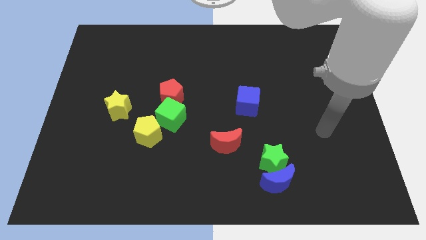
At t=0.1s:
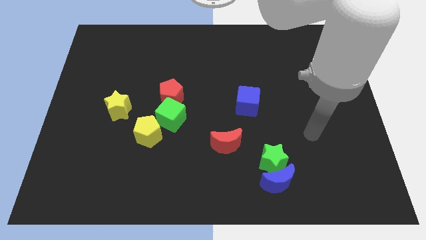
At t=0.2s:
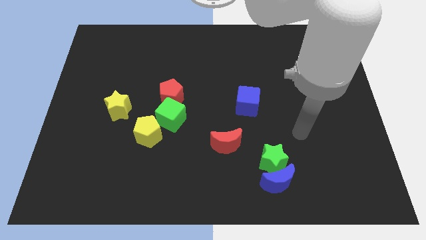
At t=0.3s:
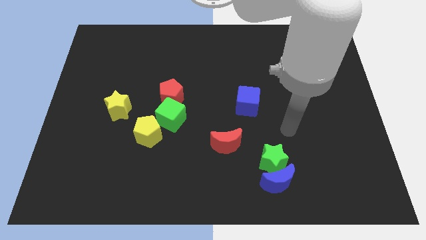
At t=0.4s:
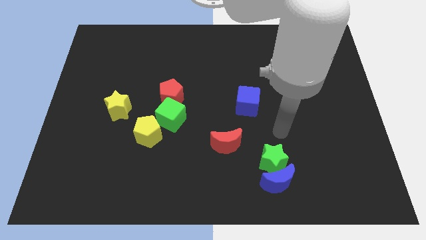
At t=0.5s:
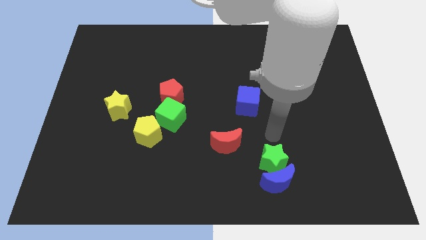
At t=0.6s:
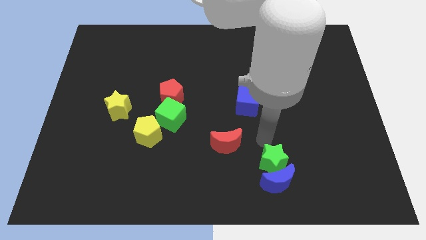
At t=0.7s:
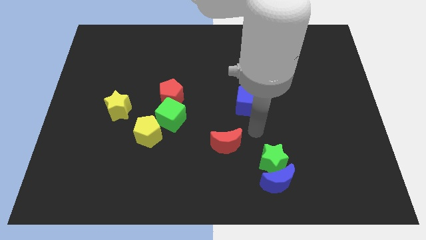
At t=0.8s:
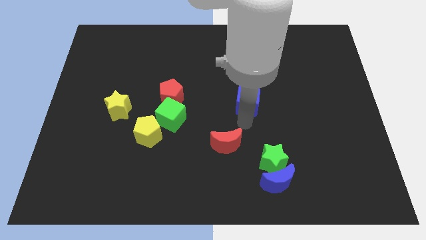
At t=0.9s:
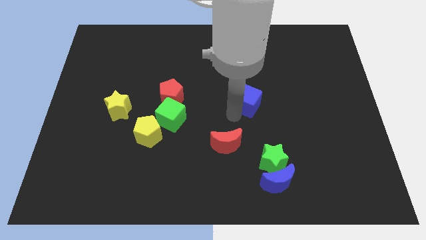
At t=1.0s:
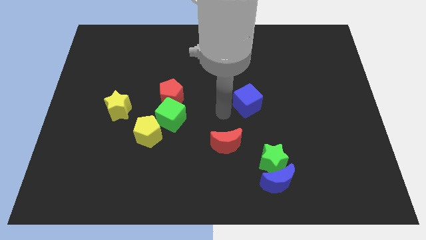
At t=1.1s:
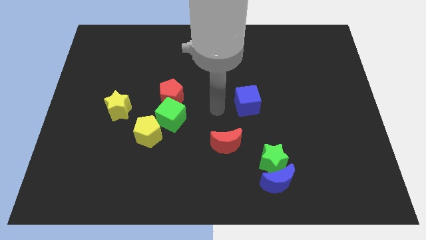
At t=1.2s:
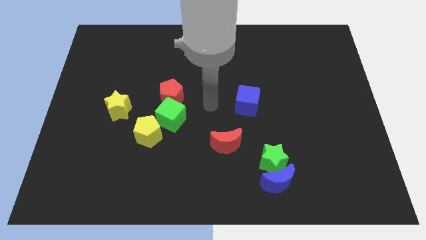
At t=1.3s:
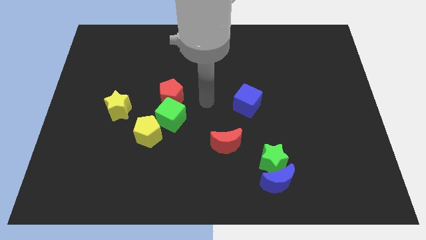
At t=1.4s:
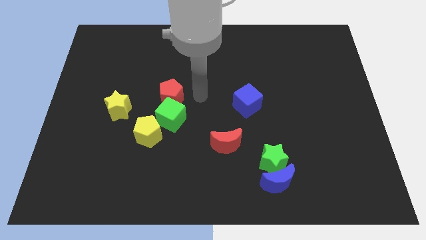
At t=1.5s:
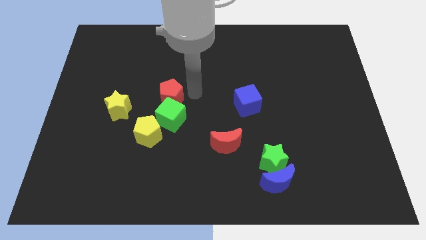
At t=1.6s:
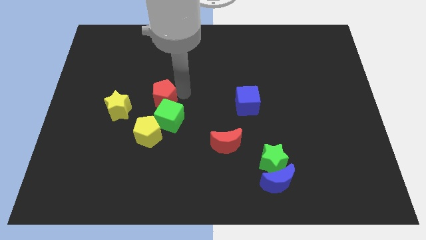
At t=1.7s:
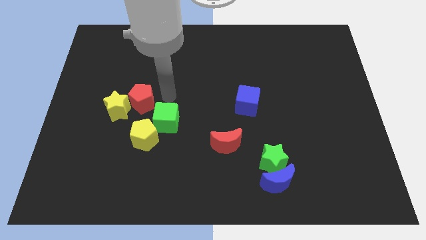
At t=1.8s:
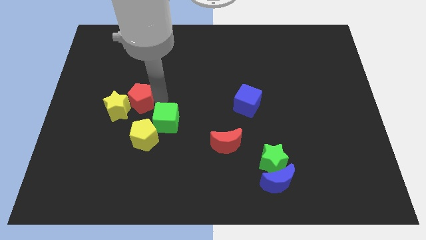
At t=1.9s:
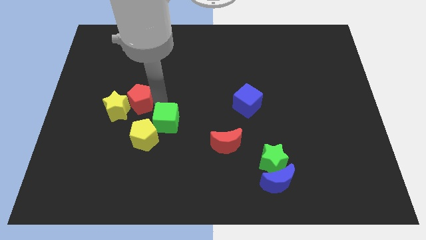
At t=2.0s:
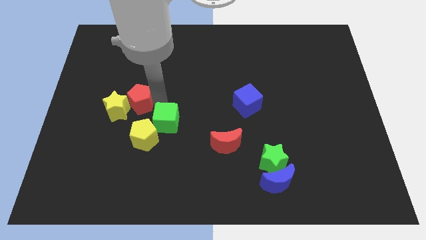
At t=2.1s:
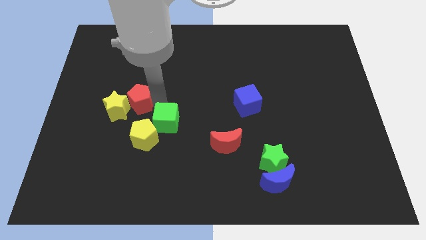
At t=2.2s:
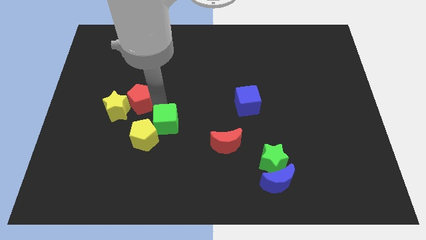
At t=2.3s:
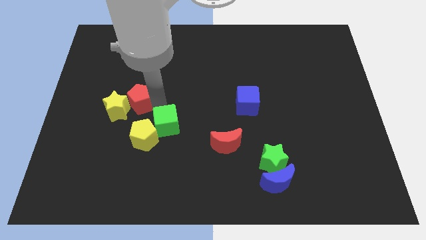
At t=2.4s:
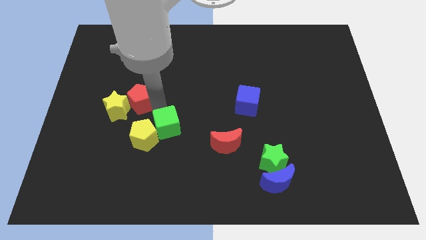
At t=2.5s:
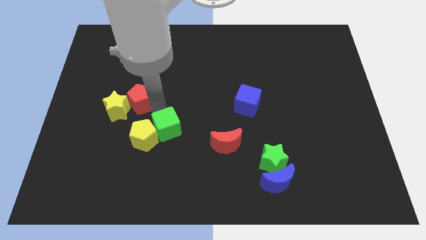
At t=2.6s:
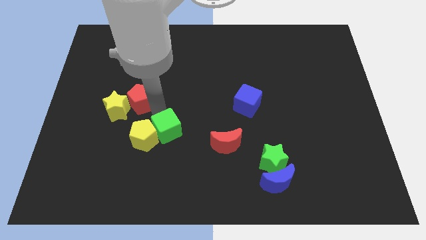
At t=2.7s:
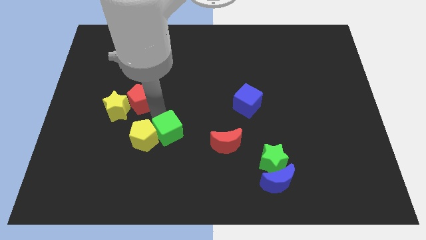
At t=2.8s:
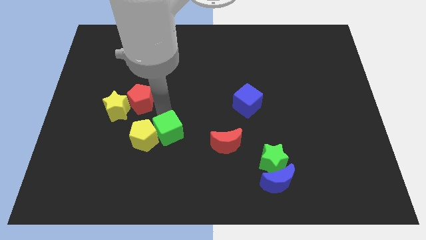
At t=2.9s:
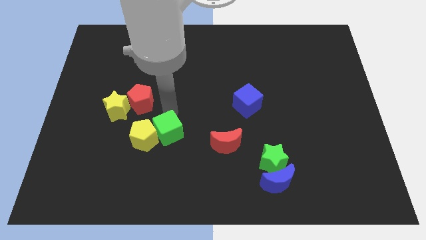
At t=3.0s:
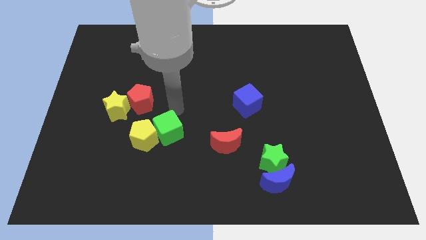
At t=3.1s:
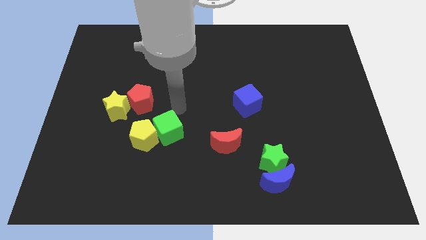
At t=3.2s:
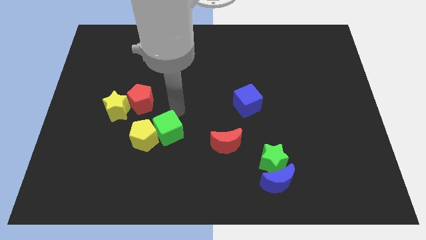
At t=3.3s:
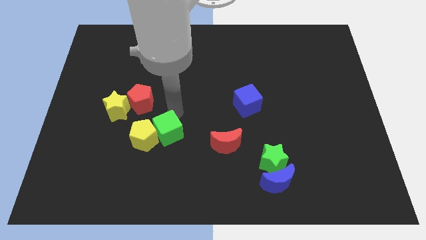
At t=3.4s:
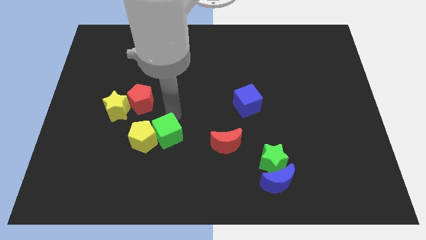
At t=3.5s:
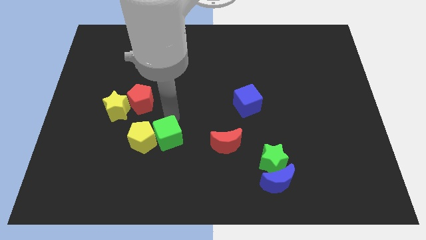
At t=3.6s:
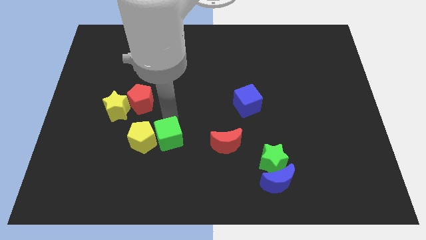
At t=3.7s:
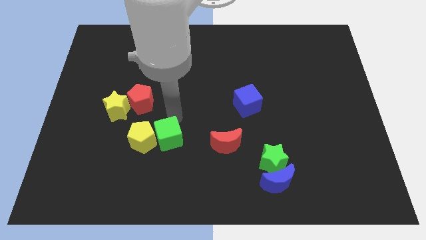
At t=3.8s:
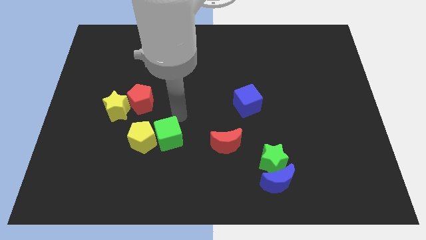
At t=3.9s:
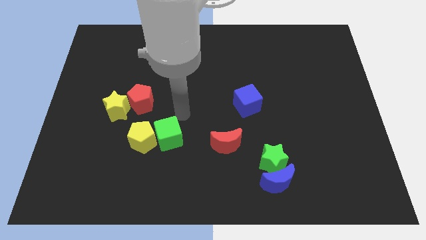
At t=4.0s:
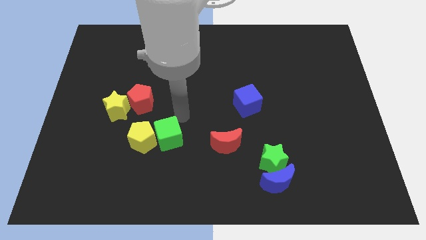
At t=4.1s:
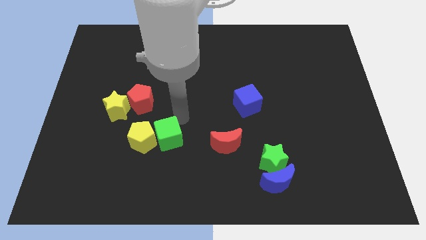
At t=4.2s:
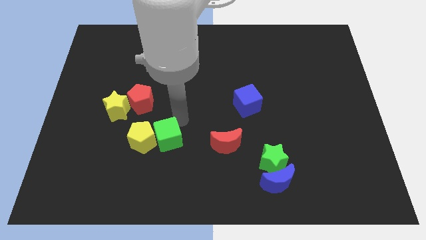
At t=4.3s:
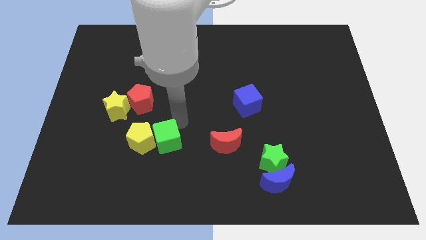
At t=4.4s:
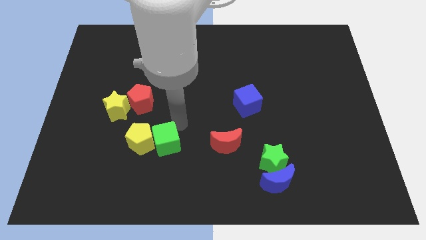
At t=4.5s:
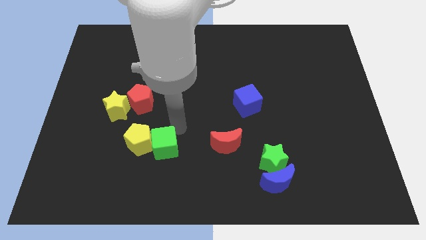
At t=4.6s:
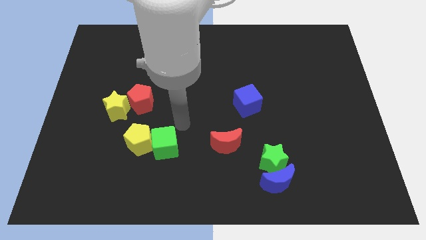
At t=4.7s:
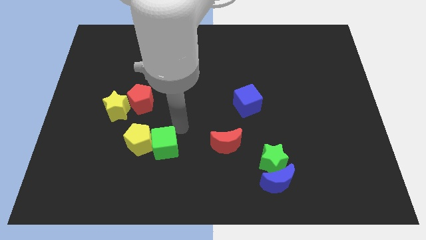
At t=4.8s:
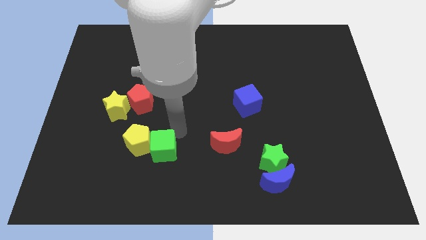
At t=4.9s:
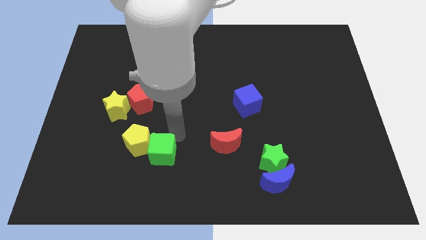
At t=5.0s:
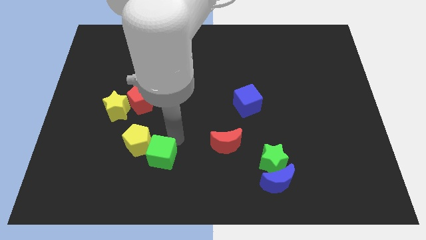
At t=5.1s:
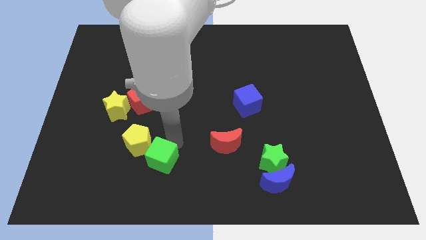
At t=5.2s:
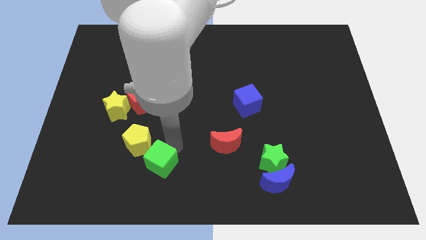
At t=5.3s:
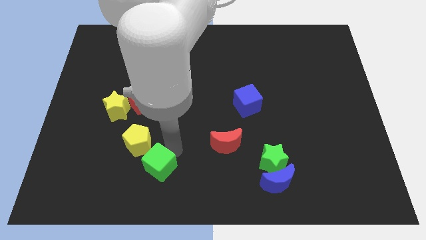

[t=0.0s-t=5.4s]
put the green cube below the yellow pentagon

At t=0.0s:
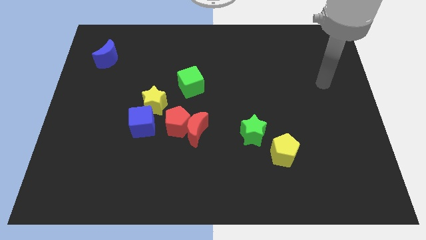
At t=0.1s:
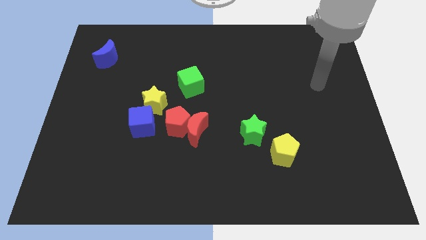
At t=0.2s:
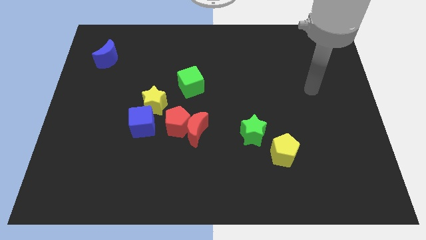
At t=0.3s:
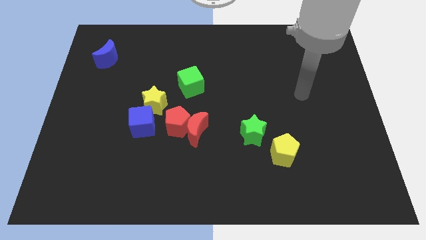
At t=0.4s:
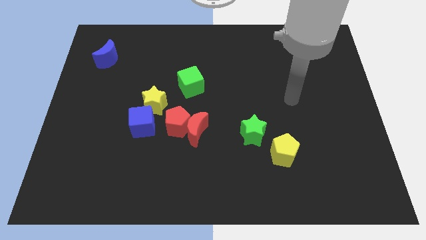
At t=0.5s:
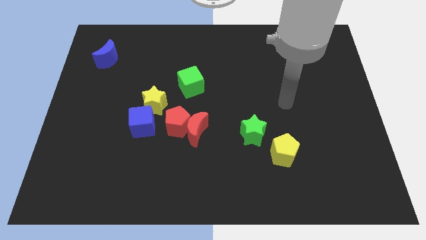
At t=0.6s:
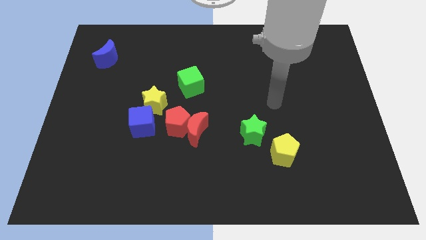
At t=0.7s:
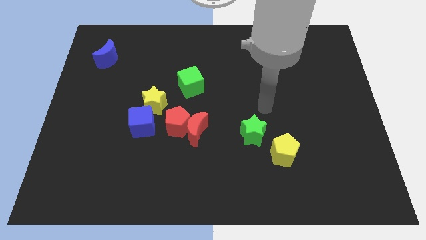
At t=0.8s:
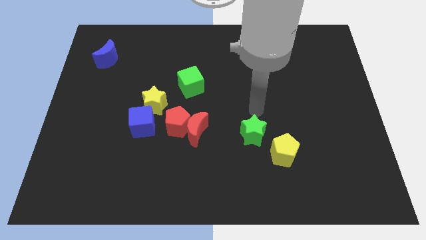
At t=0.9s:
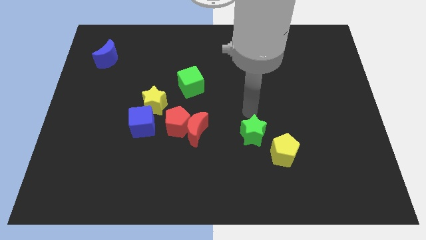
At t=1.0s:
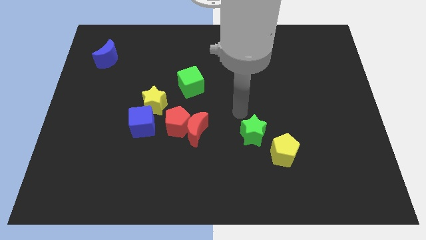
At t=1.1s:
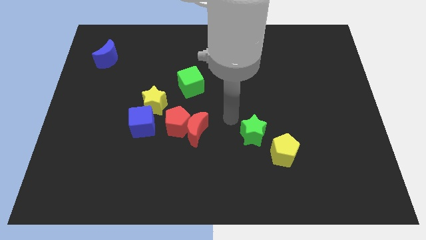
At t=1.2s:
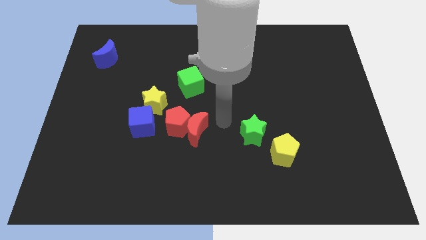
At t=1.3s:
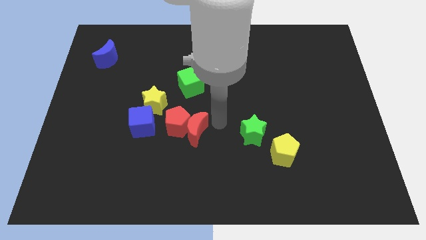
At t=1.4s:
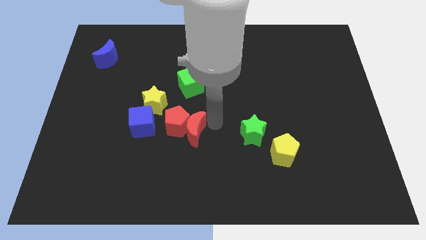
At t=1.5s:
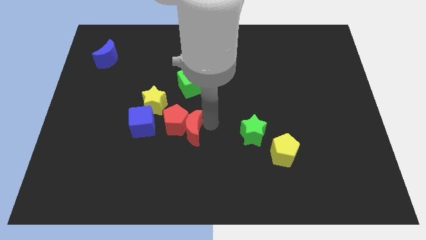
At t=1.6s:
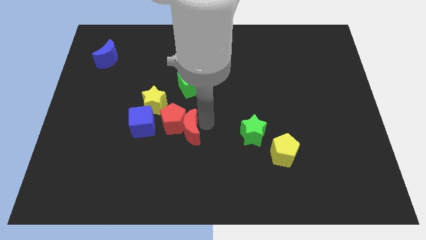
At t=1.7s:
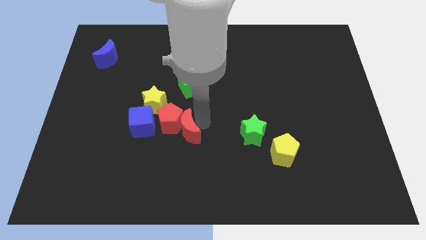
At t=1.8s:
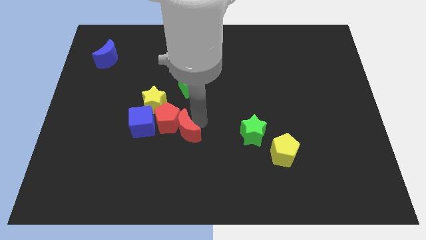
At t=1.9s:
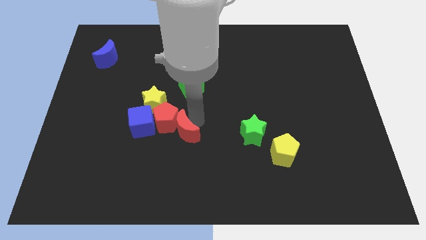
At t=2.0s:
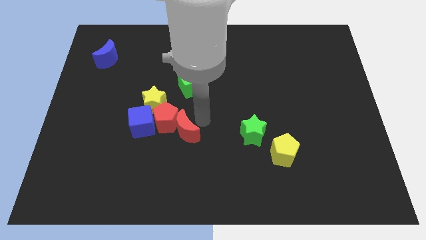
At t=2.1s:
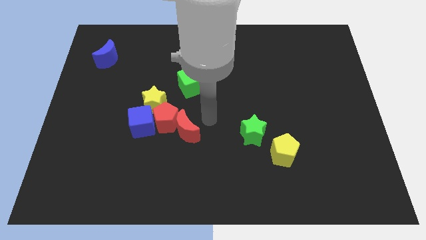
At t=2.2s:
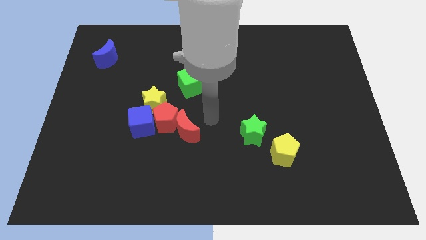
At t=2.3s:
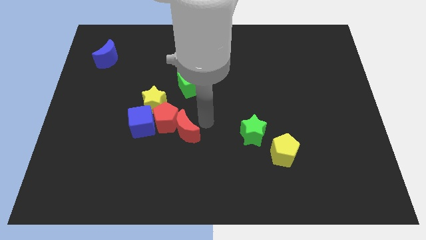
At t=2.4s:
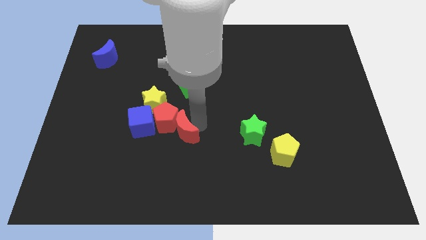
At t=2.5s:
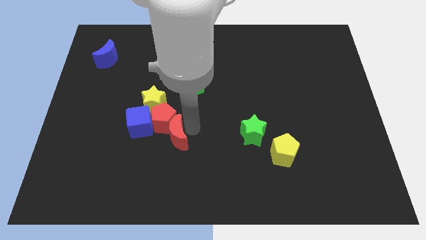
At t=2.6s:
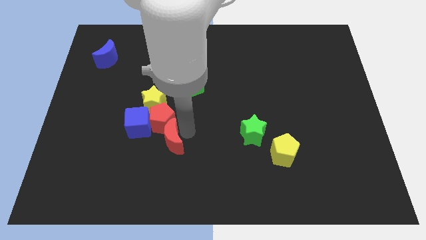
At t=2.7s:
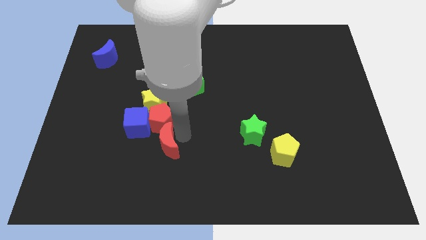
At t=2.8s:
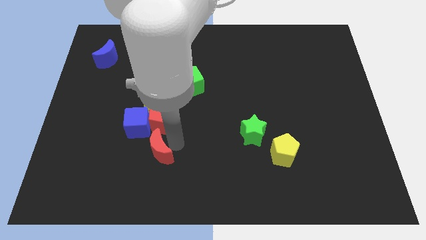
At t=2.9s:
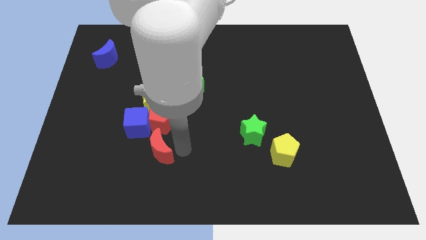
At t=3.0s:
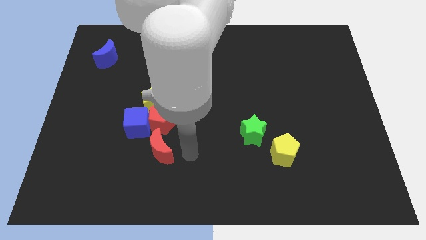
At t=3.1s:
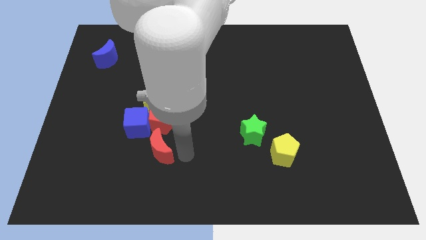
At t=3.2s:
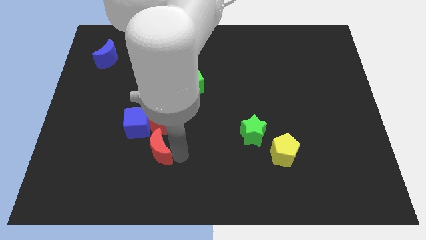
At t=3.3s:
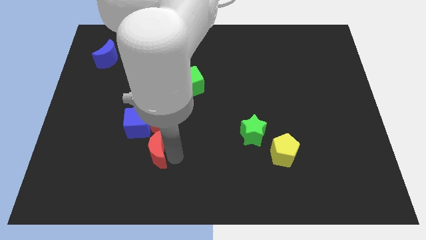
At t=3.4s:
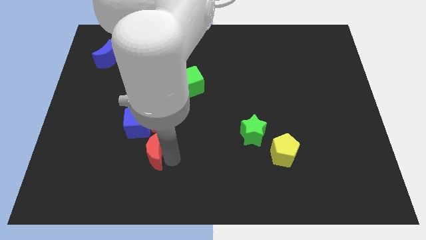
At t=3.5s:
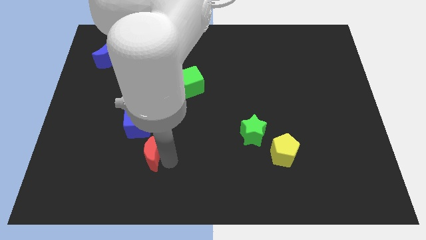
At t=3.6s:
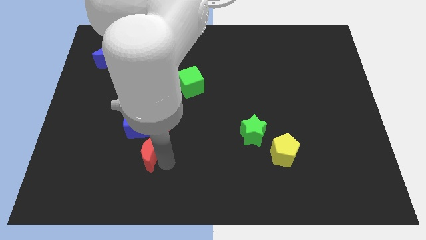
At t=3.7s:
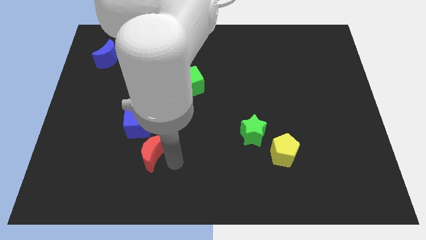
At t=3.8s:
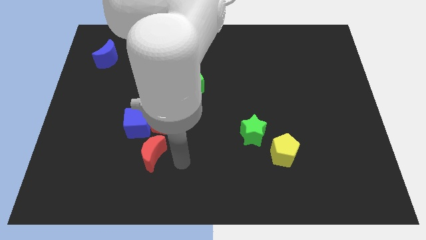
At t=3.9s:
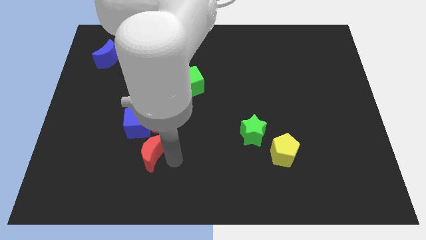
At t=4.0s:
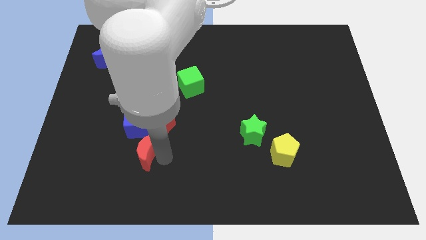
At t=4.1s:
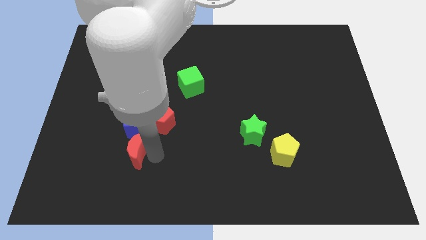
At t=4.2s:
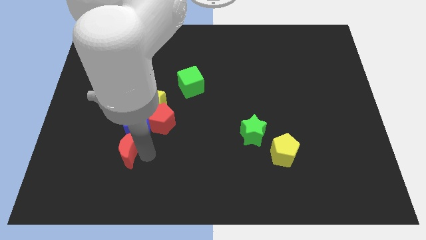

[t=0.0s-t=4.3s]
move the red moon to the bottom left side of the blue cube
